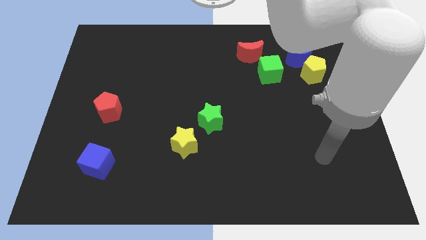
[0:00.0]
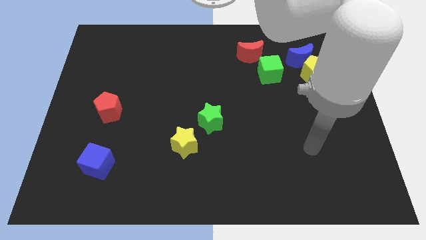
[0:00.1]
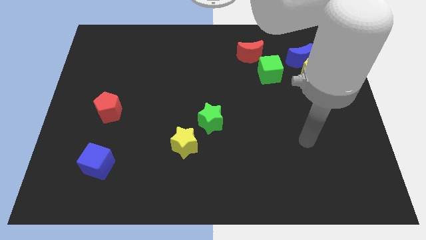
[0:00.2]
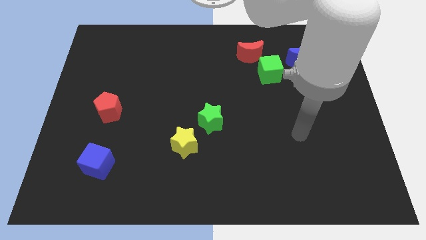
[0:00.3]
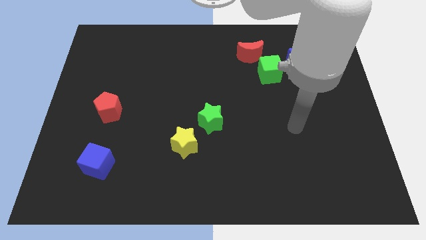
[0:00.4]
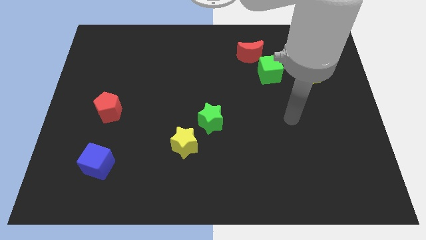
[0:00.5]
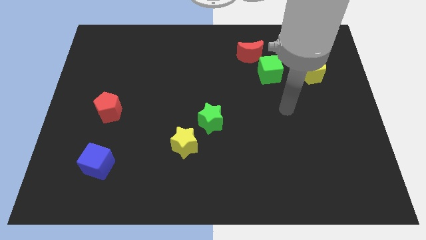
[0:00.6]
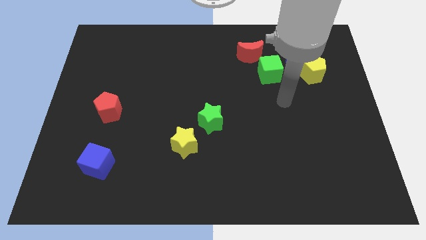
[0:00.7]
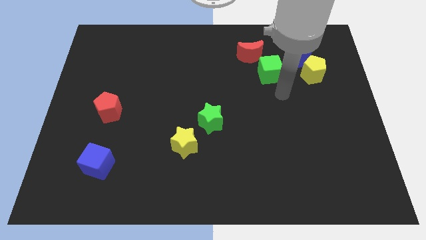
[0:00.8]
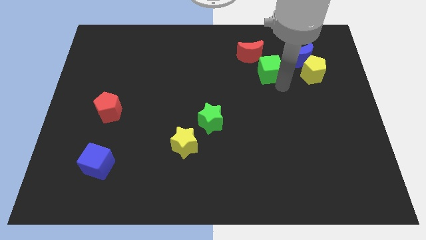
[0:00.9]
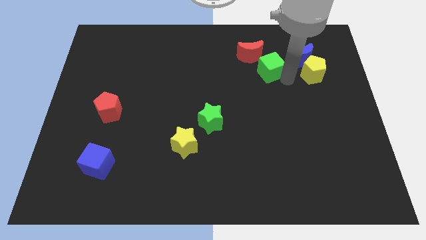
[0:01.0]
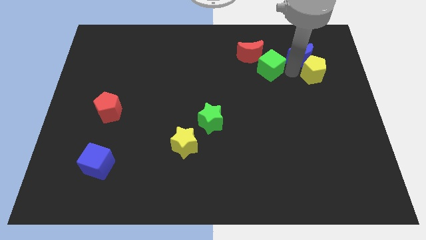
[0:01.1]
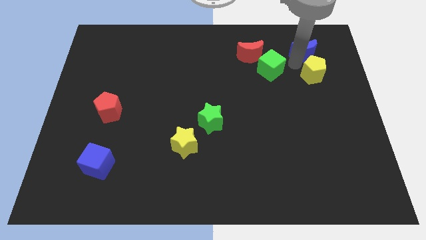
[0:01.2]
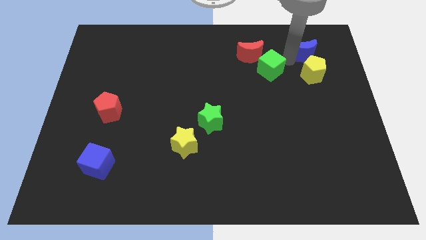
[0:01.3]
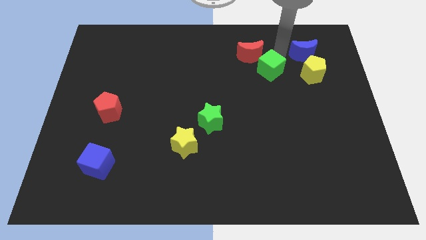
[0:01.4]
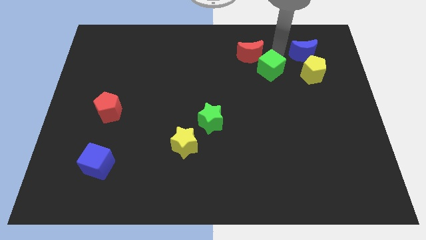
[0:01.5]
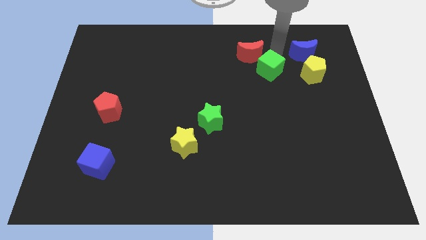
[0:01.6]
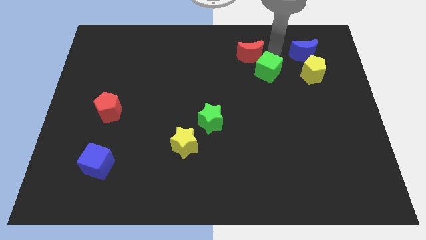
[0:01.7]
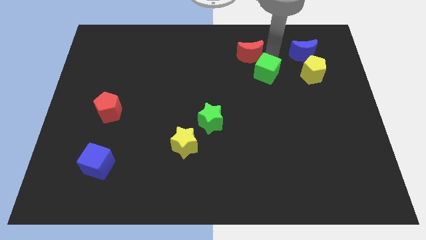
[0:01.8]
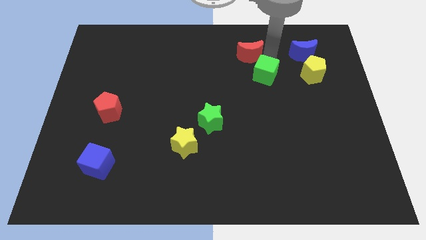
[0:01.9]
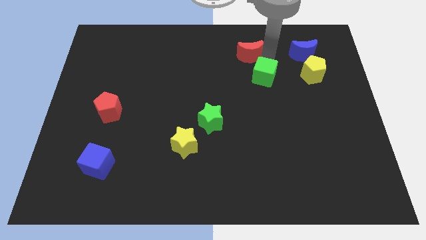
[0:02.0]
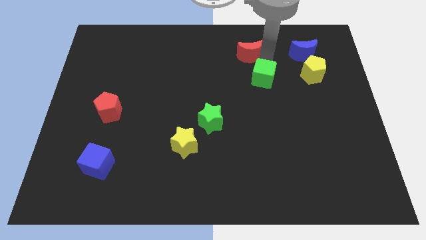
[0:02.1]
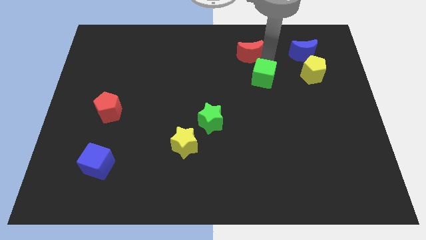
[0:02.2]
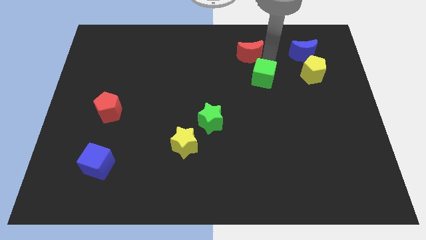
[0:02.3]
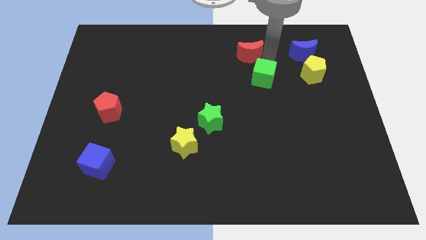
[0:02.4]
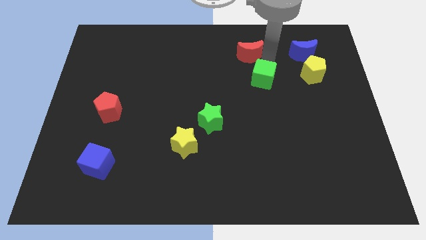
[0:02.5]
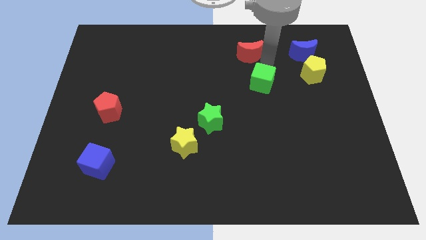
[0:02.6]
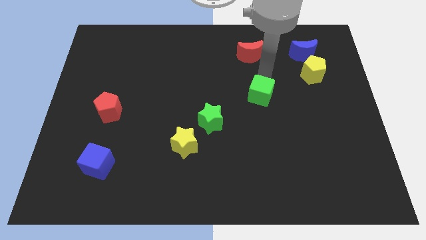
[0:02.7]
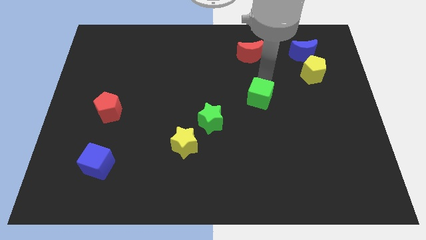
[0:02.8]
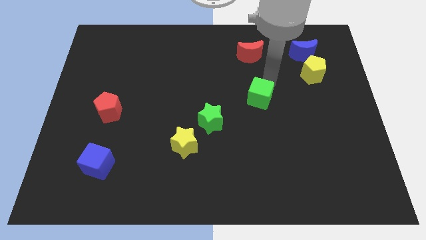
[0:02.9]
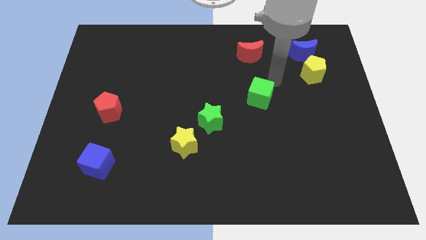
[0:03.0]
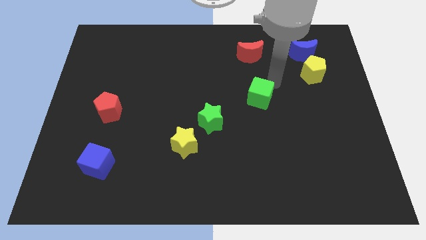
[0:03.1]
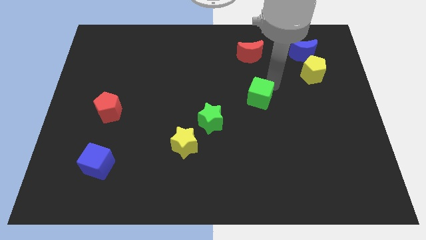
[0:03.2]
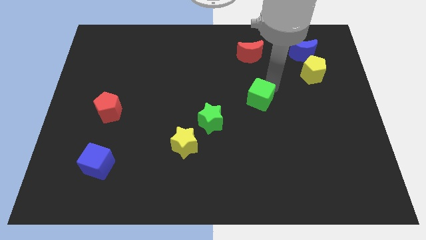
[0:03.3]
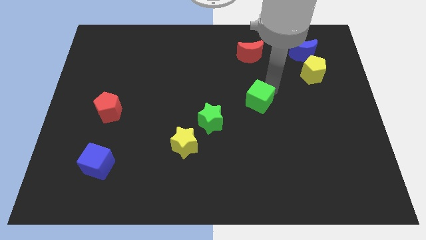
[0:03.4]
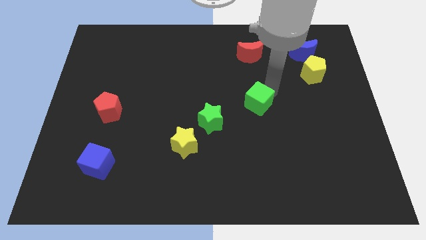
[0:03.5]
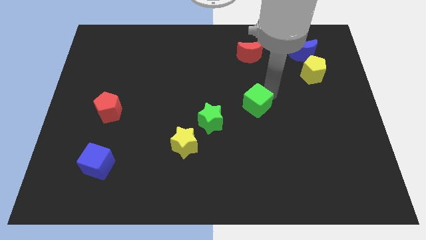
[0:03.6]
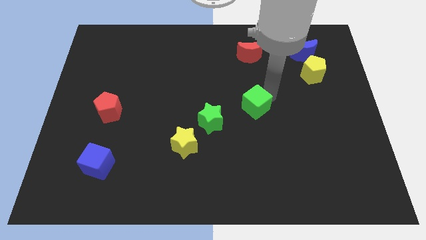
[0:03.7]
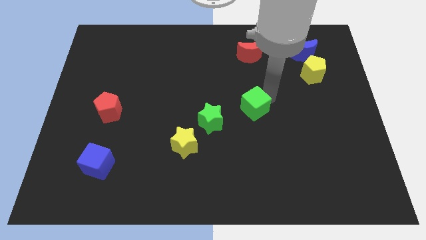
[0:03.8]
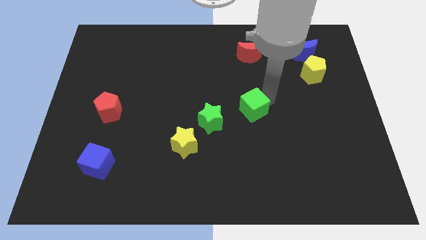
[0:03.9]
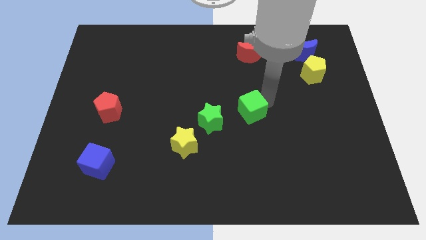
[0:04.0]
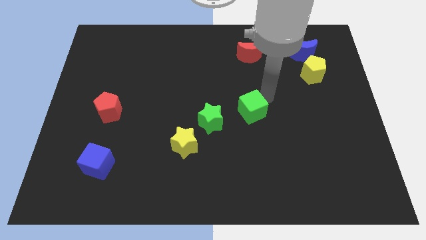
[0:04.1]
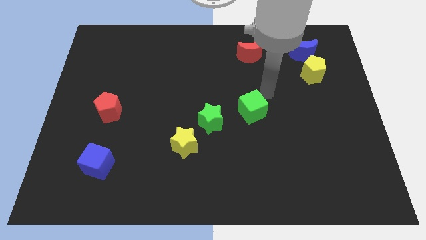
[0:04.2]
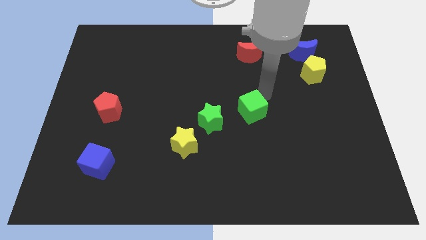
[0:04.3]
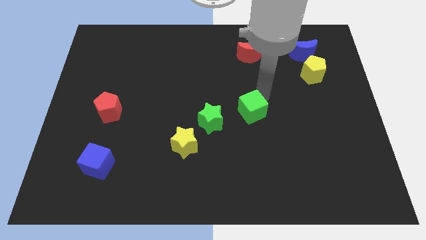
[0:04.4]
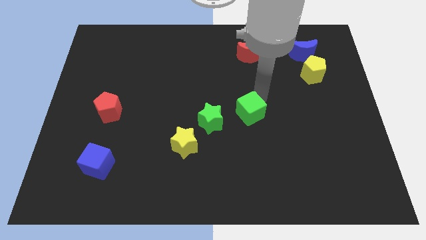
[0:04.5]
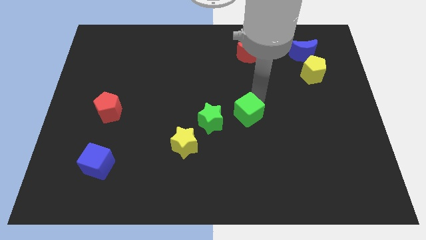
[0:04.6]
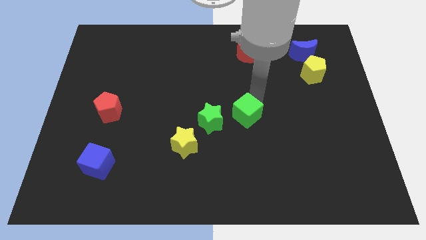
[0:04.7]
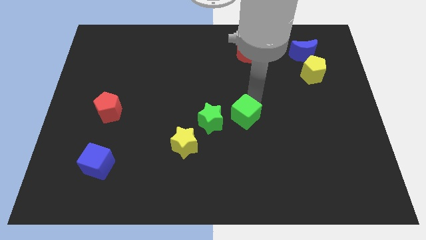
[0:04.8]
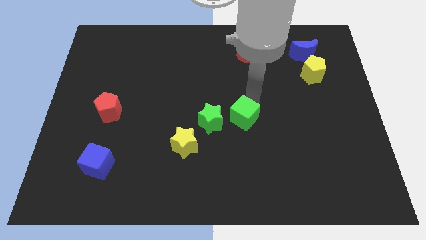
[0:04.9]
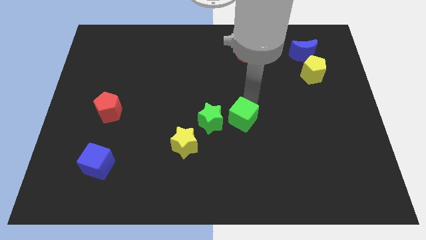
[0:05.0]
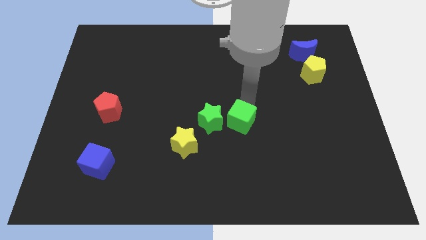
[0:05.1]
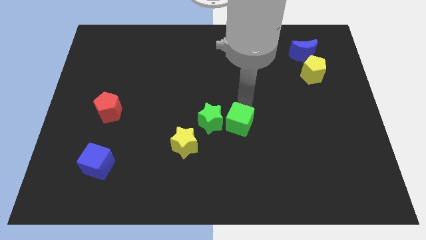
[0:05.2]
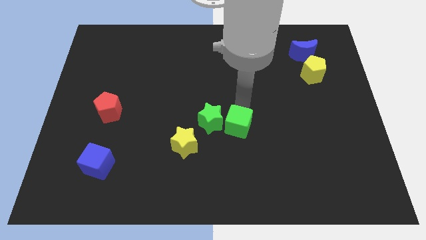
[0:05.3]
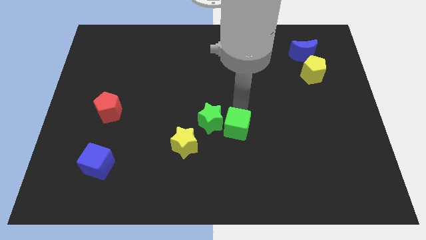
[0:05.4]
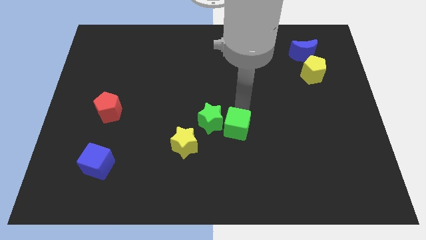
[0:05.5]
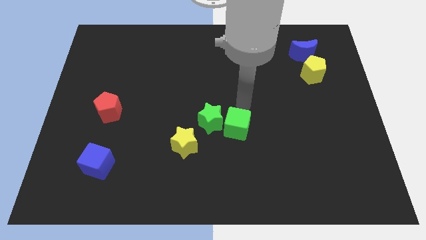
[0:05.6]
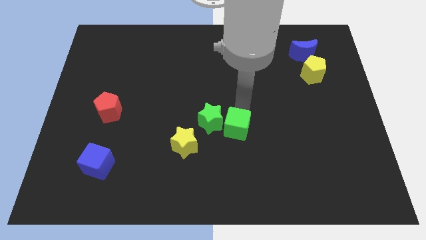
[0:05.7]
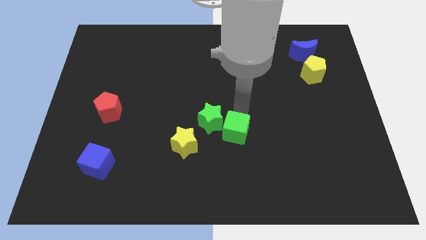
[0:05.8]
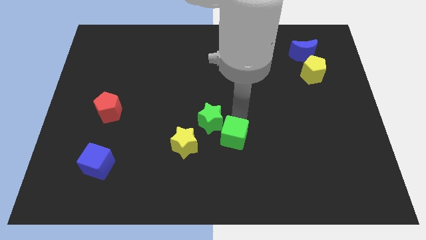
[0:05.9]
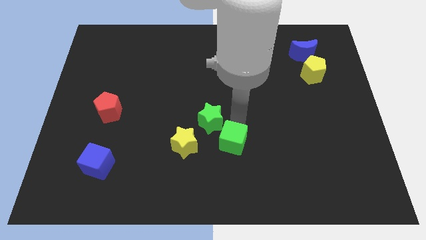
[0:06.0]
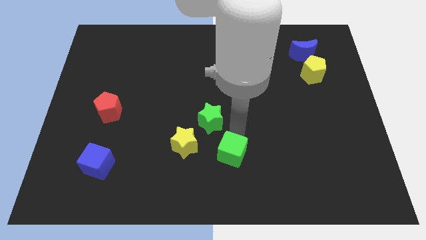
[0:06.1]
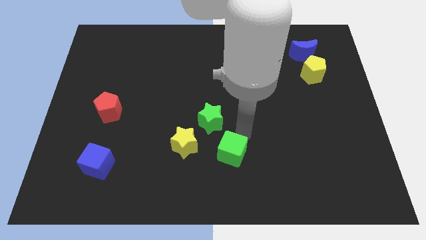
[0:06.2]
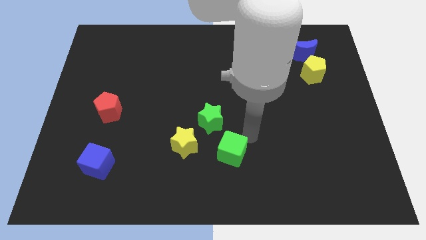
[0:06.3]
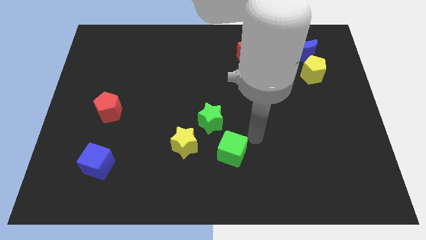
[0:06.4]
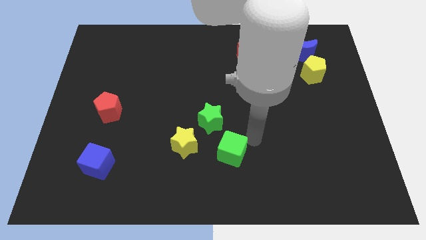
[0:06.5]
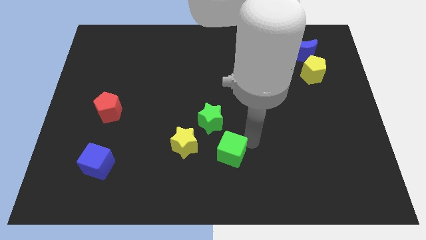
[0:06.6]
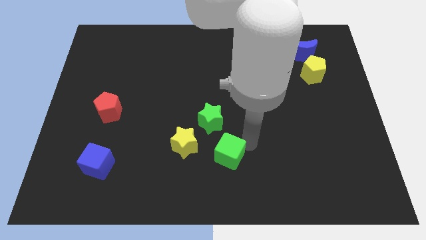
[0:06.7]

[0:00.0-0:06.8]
move the green cube to the bottom right of the yellow star

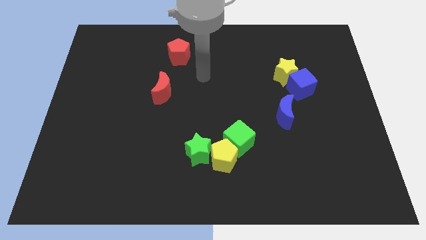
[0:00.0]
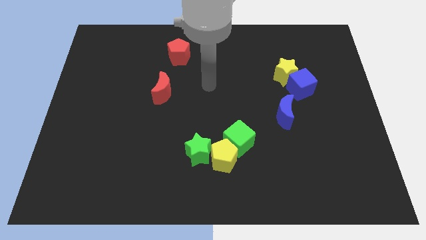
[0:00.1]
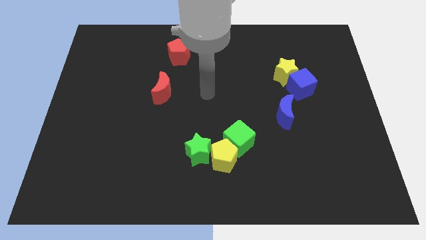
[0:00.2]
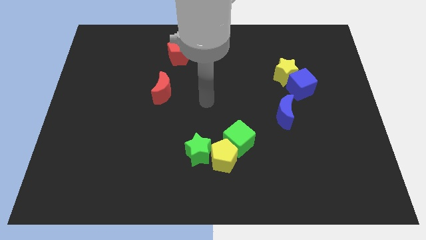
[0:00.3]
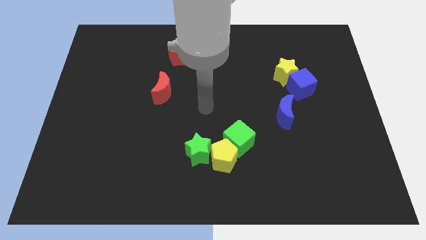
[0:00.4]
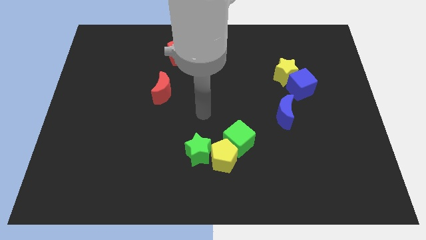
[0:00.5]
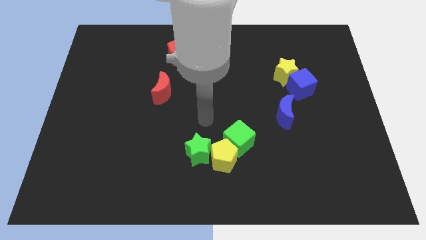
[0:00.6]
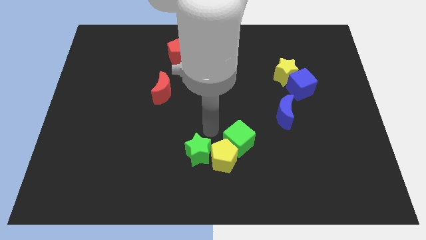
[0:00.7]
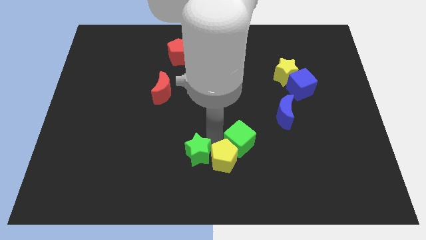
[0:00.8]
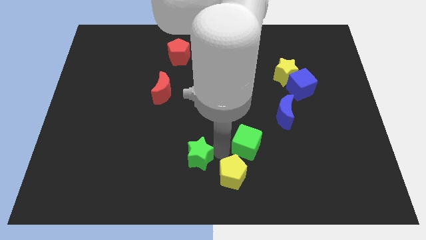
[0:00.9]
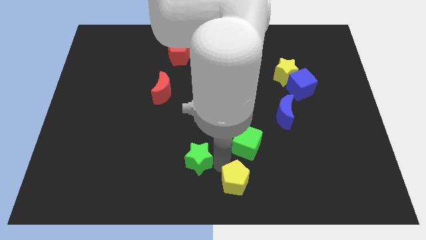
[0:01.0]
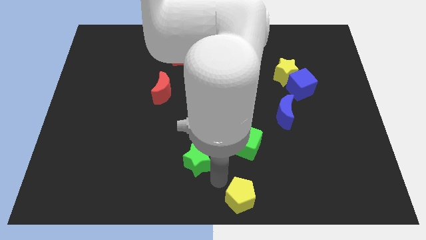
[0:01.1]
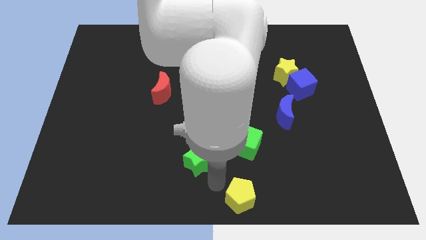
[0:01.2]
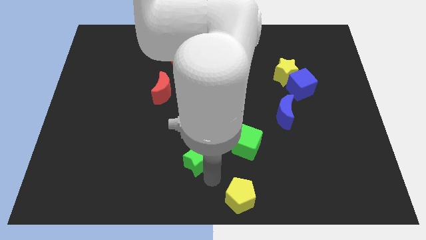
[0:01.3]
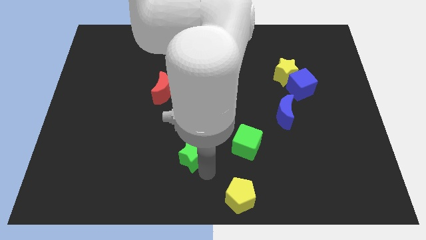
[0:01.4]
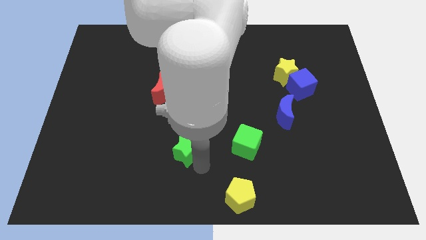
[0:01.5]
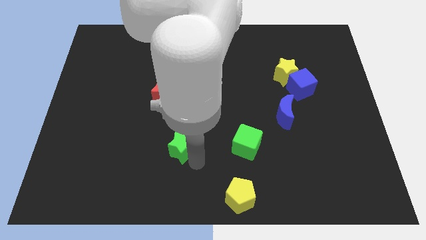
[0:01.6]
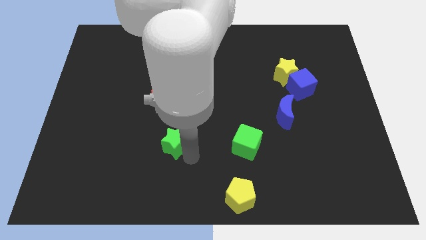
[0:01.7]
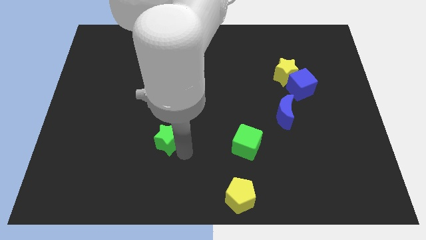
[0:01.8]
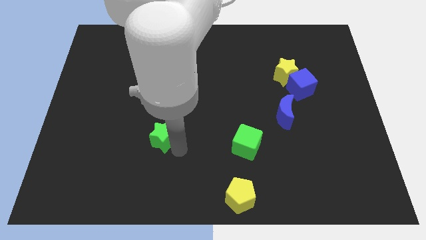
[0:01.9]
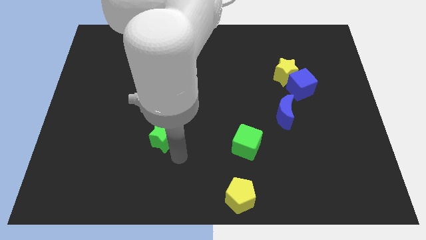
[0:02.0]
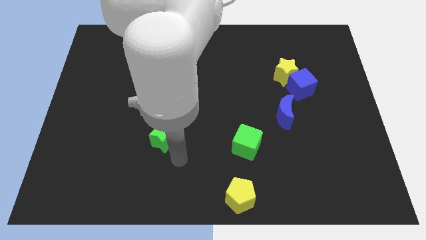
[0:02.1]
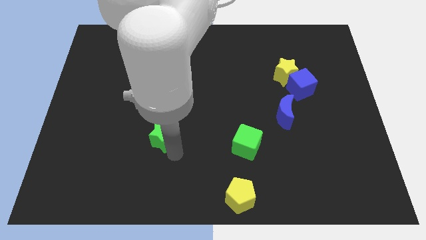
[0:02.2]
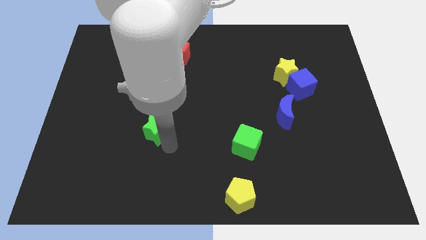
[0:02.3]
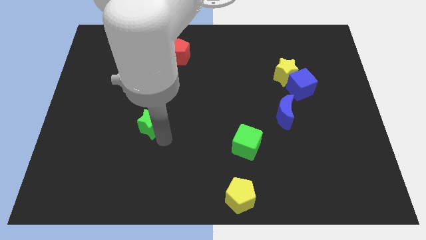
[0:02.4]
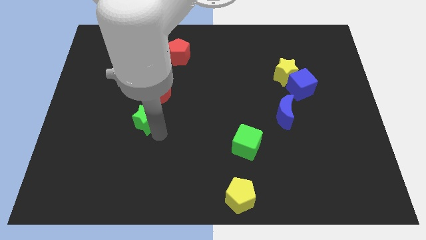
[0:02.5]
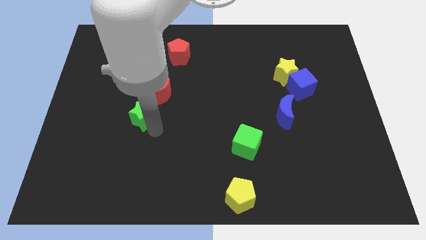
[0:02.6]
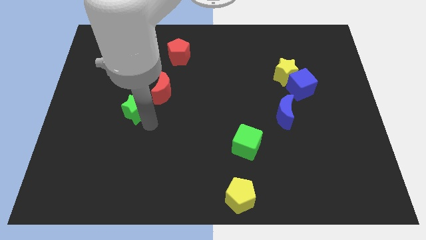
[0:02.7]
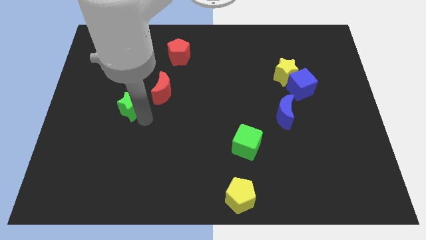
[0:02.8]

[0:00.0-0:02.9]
slide the green star left of the red moon
